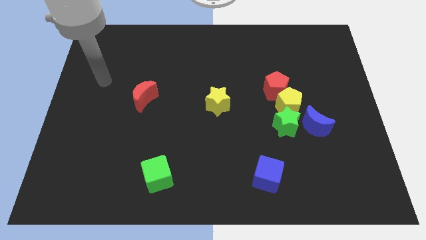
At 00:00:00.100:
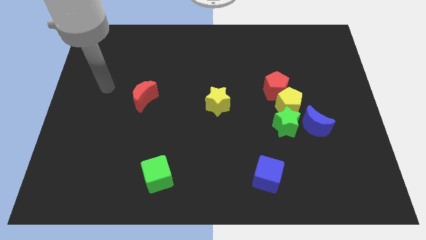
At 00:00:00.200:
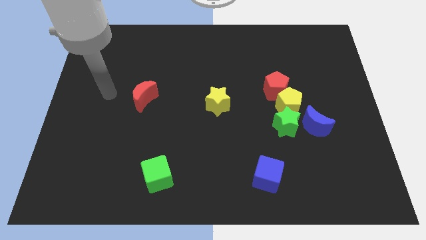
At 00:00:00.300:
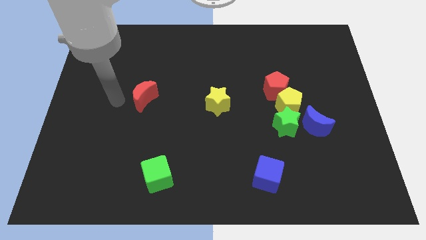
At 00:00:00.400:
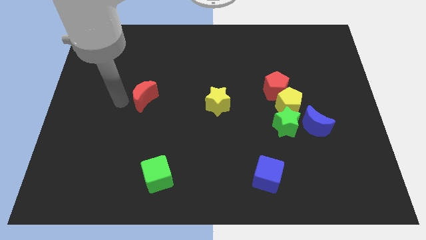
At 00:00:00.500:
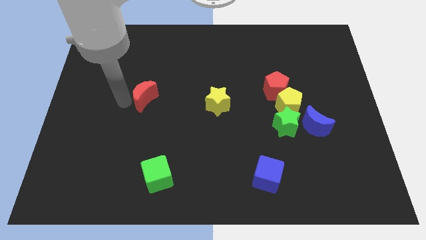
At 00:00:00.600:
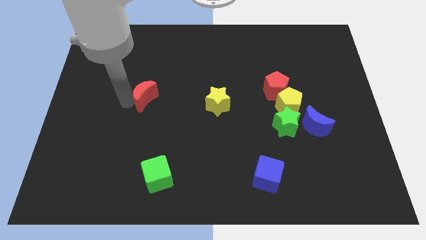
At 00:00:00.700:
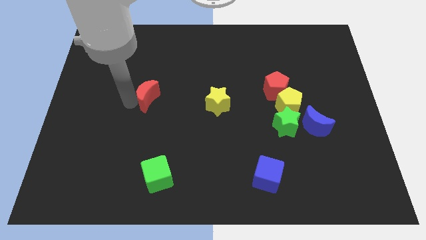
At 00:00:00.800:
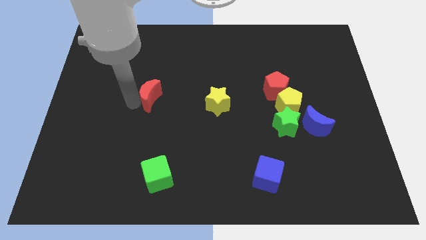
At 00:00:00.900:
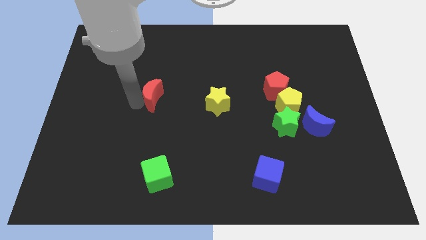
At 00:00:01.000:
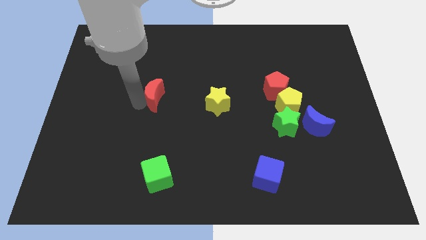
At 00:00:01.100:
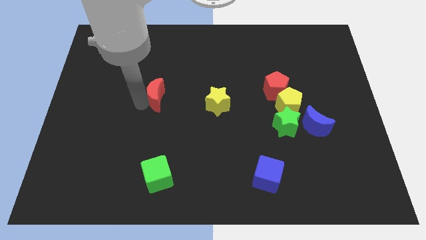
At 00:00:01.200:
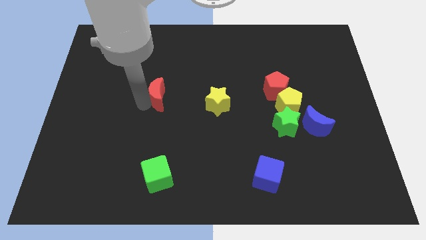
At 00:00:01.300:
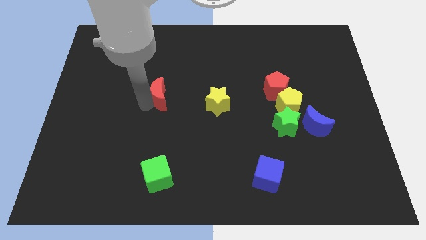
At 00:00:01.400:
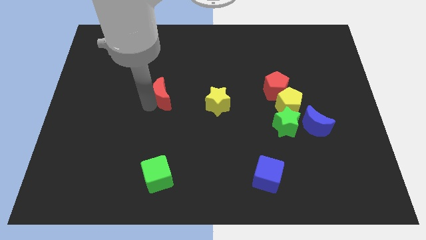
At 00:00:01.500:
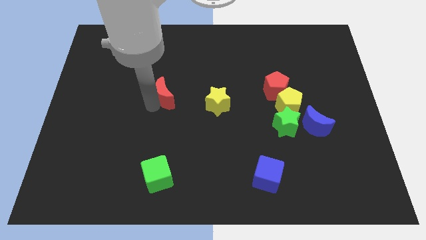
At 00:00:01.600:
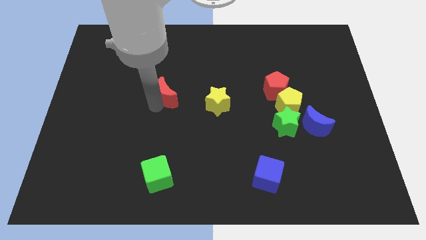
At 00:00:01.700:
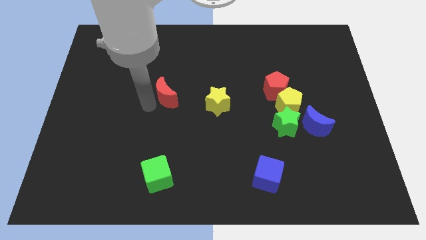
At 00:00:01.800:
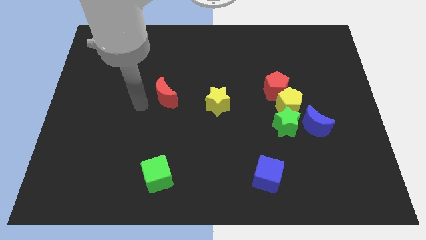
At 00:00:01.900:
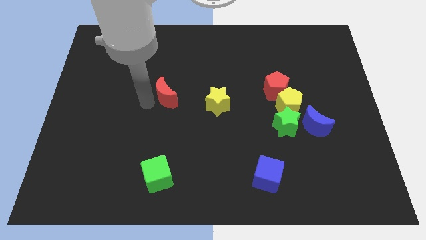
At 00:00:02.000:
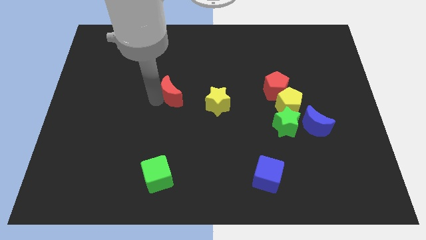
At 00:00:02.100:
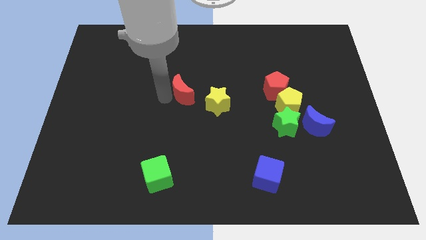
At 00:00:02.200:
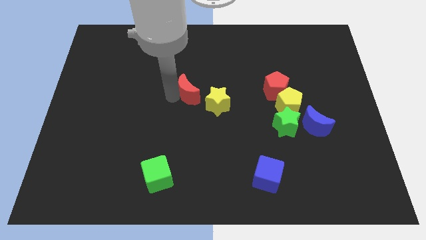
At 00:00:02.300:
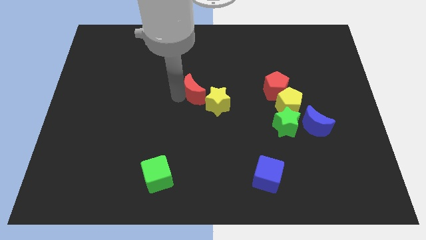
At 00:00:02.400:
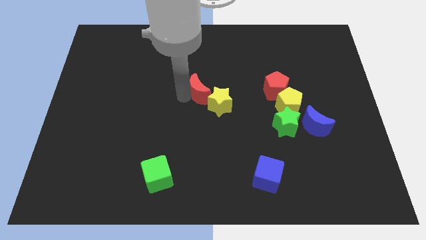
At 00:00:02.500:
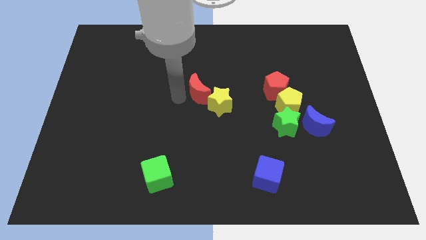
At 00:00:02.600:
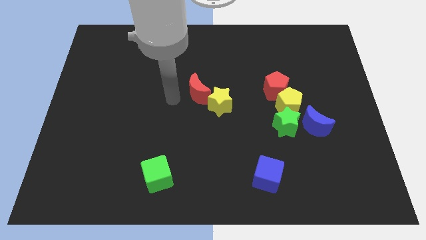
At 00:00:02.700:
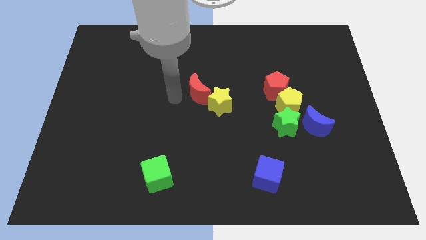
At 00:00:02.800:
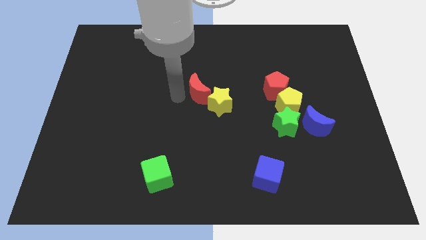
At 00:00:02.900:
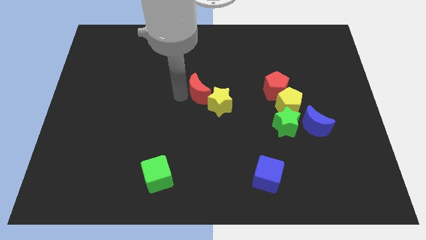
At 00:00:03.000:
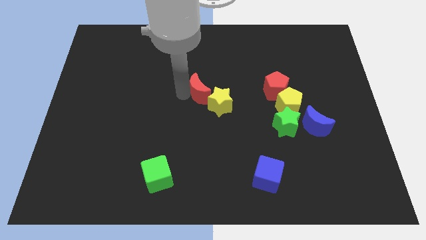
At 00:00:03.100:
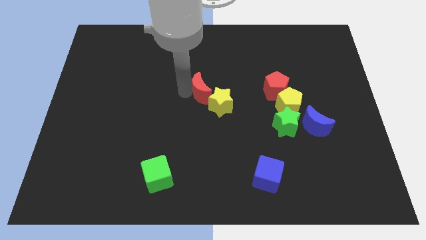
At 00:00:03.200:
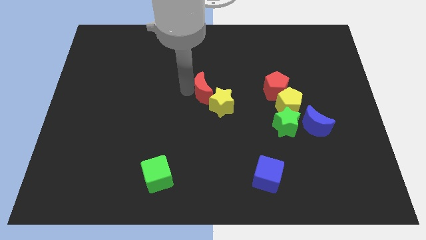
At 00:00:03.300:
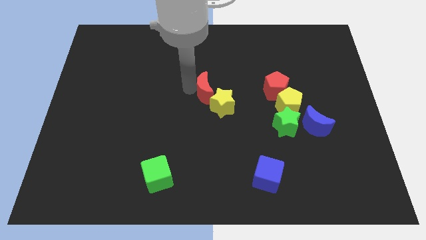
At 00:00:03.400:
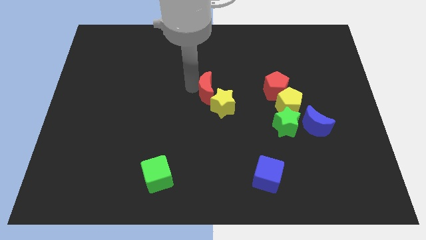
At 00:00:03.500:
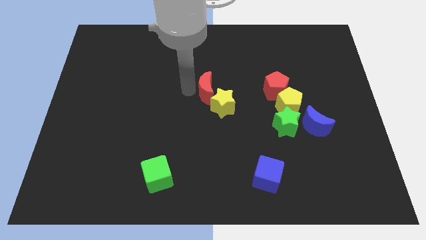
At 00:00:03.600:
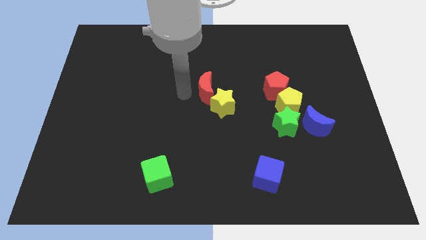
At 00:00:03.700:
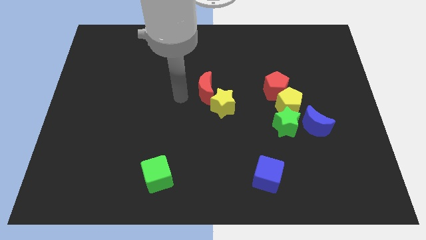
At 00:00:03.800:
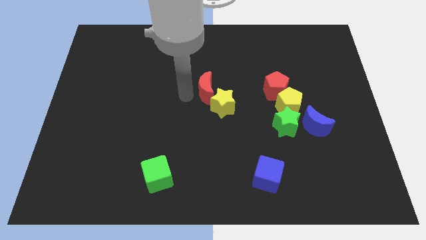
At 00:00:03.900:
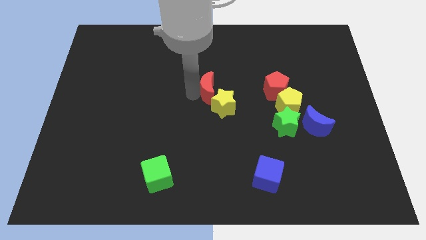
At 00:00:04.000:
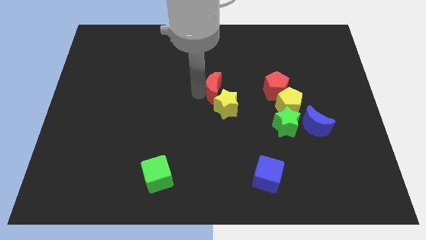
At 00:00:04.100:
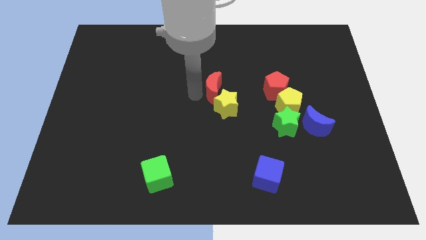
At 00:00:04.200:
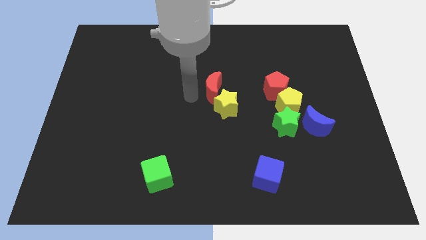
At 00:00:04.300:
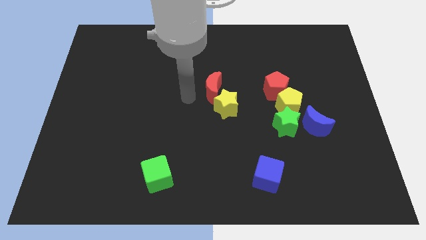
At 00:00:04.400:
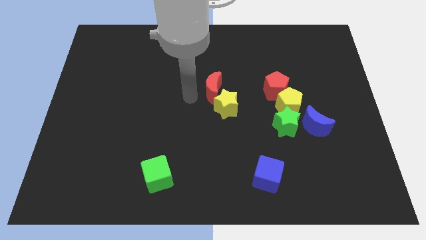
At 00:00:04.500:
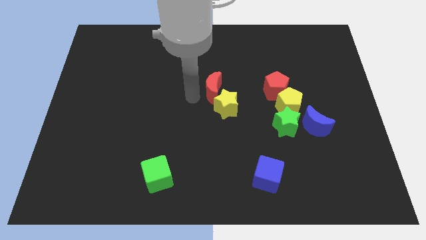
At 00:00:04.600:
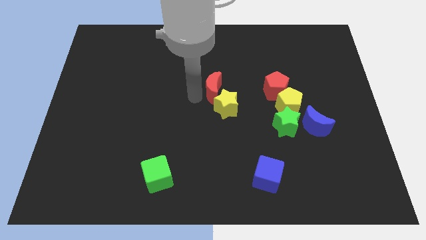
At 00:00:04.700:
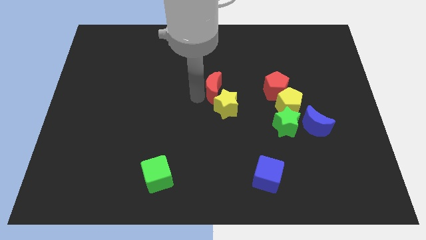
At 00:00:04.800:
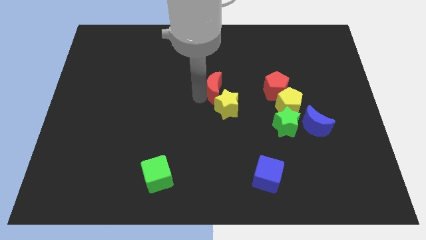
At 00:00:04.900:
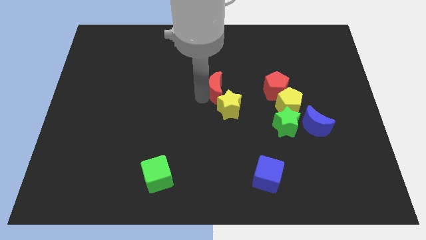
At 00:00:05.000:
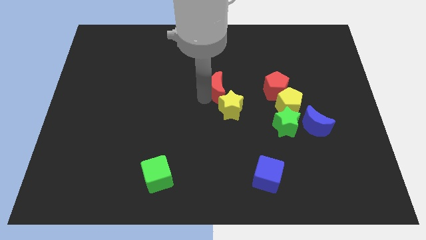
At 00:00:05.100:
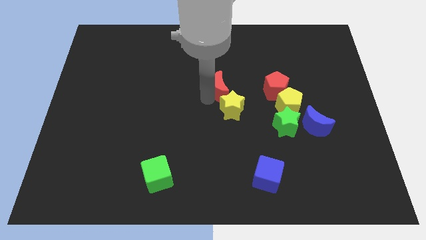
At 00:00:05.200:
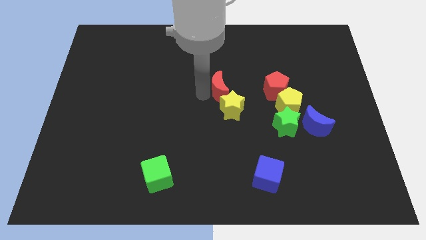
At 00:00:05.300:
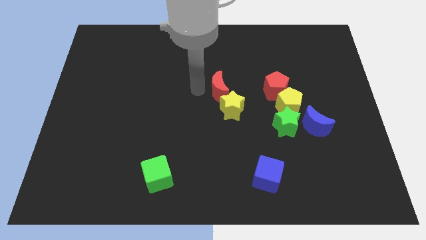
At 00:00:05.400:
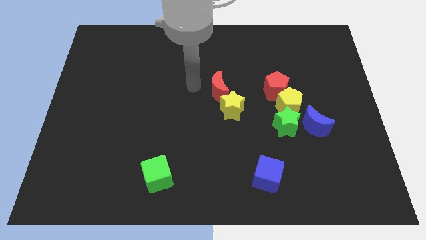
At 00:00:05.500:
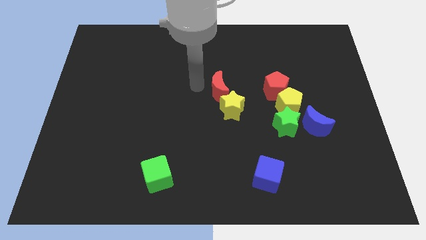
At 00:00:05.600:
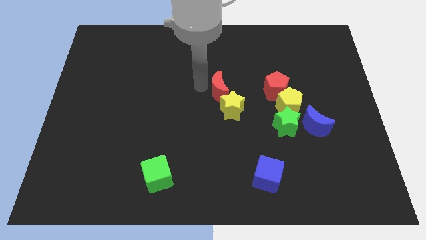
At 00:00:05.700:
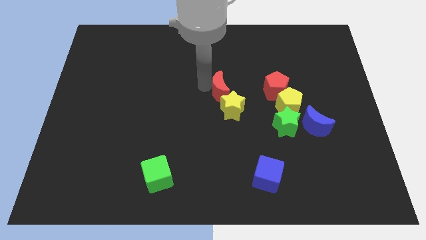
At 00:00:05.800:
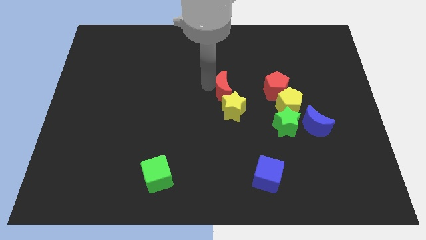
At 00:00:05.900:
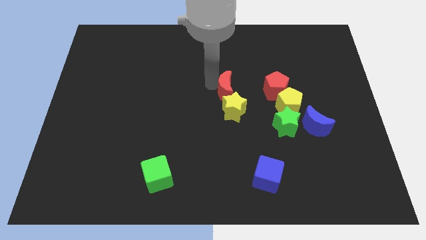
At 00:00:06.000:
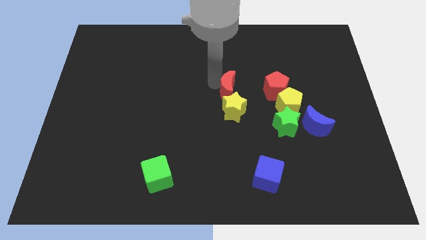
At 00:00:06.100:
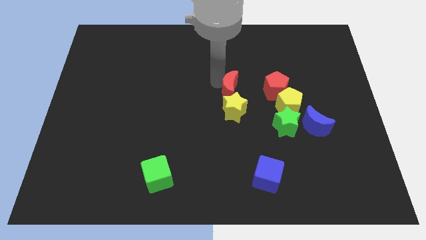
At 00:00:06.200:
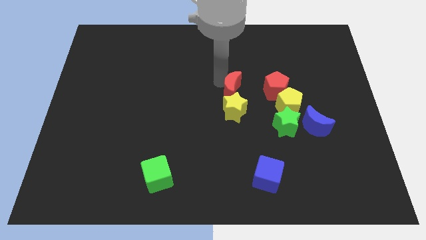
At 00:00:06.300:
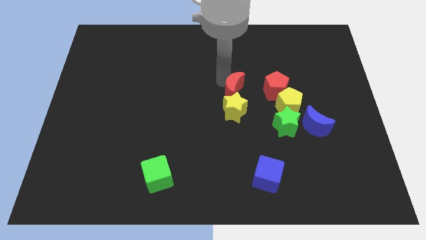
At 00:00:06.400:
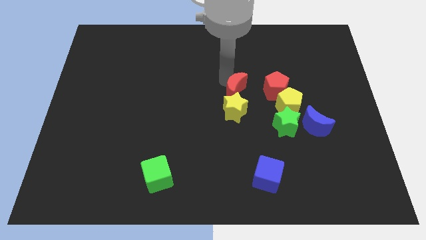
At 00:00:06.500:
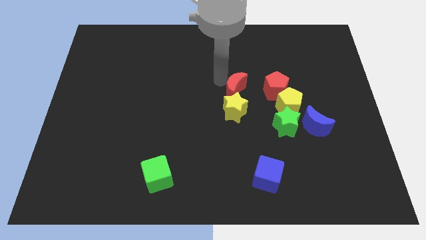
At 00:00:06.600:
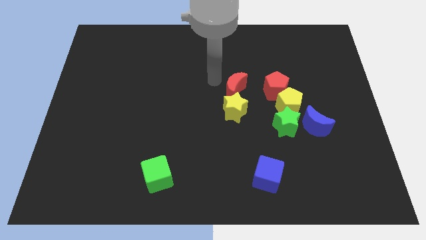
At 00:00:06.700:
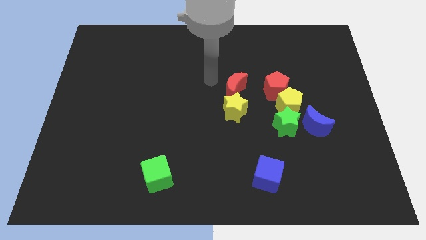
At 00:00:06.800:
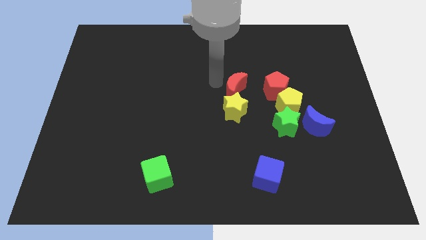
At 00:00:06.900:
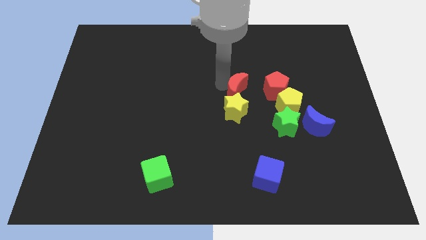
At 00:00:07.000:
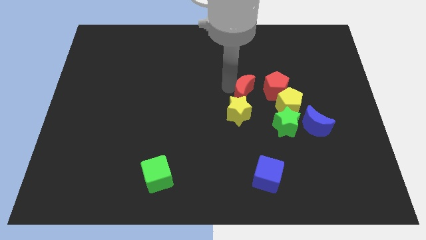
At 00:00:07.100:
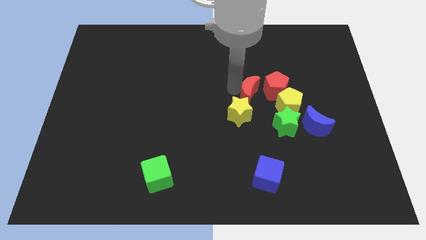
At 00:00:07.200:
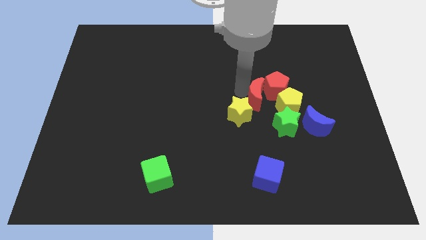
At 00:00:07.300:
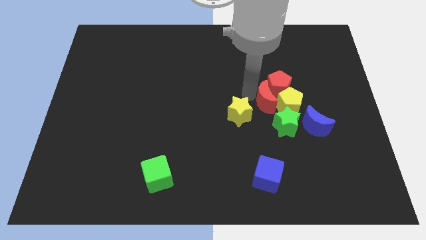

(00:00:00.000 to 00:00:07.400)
put the red moon to the yellow pentagon
